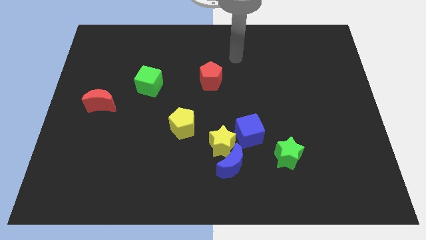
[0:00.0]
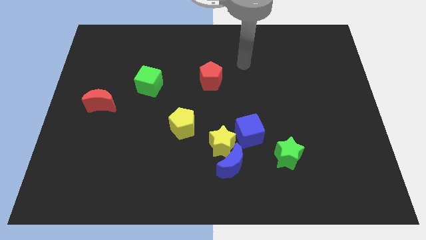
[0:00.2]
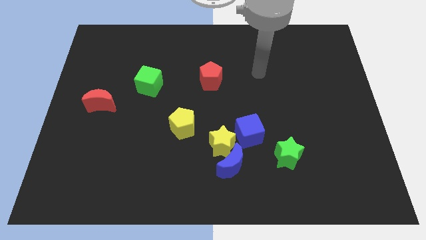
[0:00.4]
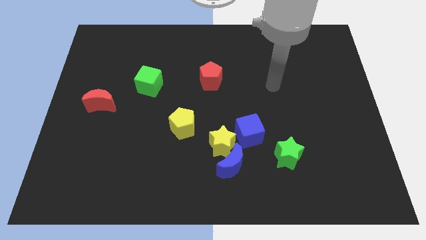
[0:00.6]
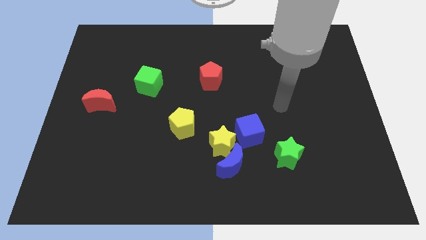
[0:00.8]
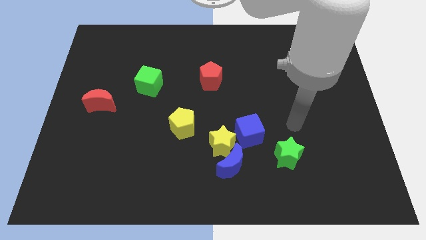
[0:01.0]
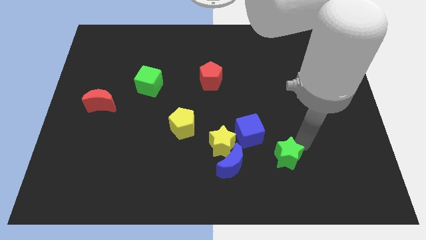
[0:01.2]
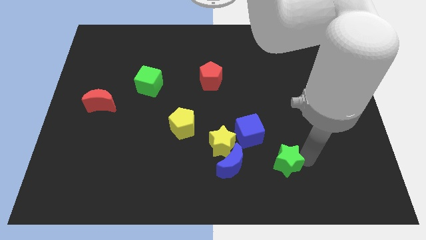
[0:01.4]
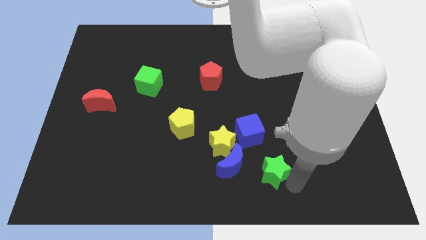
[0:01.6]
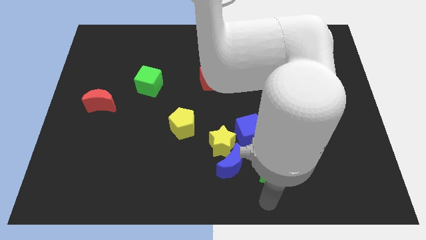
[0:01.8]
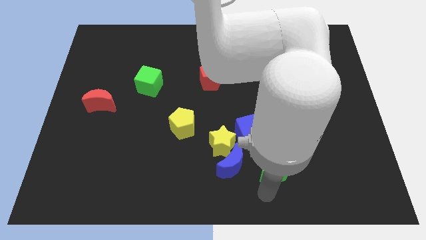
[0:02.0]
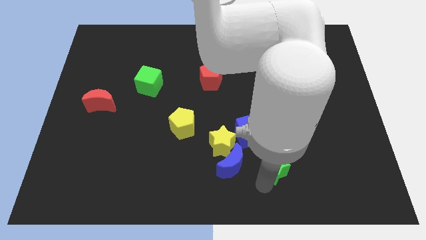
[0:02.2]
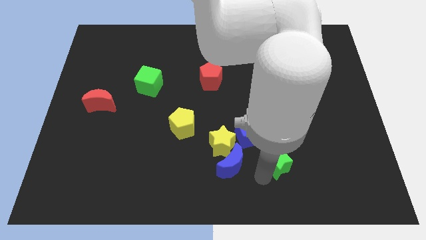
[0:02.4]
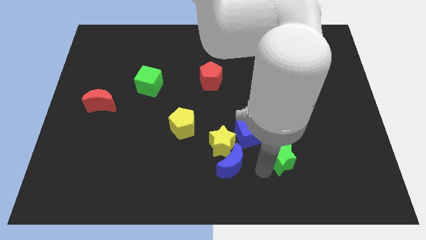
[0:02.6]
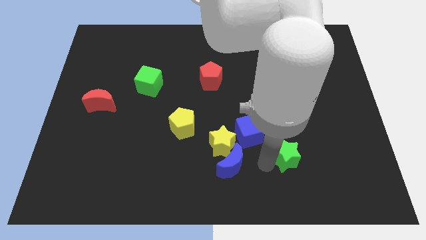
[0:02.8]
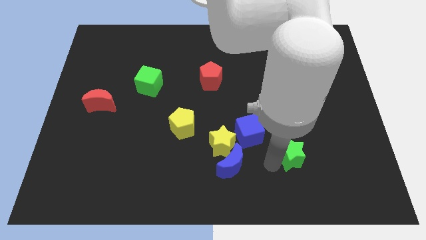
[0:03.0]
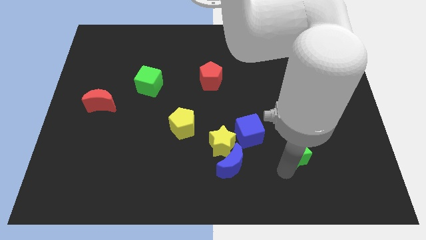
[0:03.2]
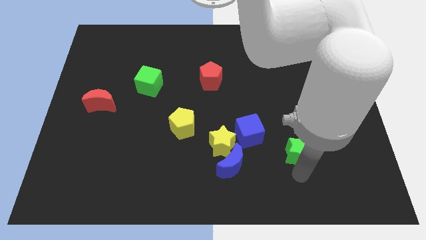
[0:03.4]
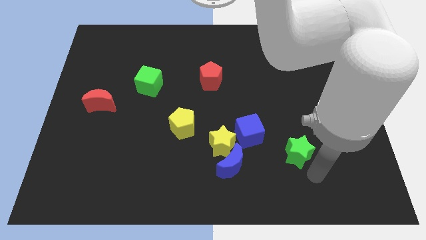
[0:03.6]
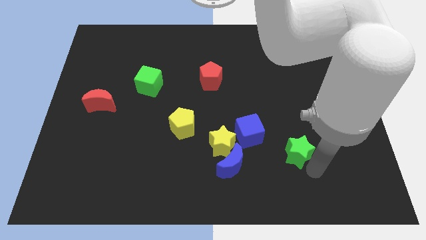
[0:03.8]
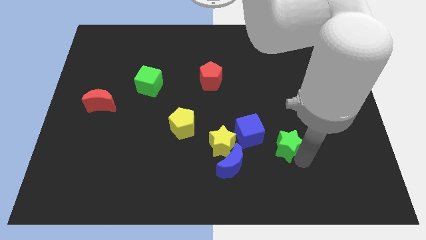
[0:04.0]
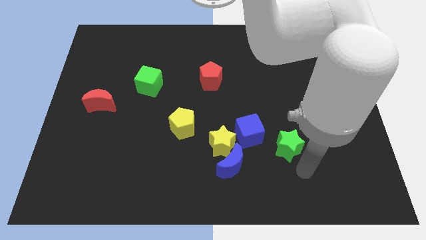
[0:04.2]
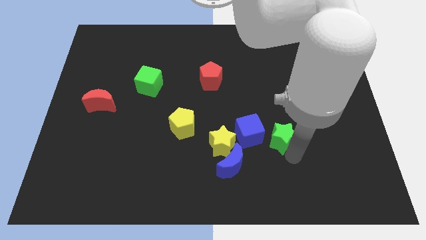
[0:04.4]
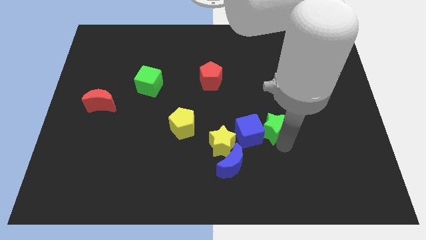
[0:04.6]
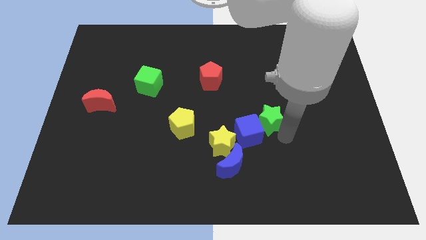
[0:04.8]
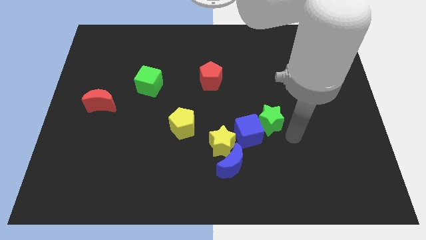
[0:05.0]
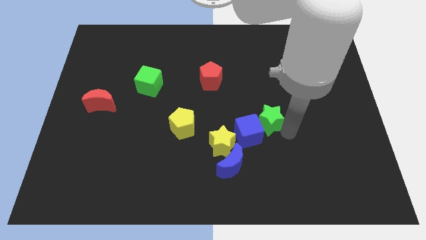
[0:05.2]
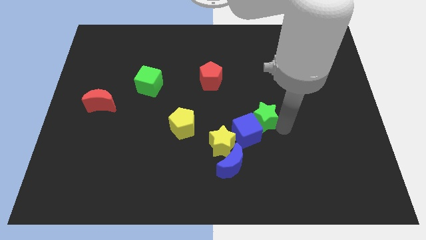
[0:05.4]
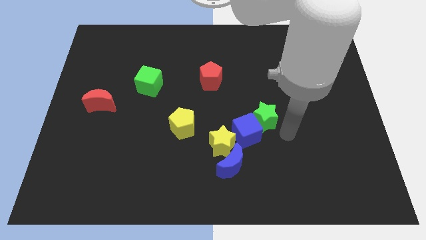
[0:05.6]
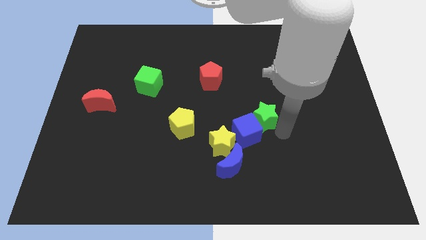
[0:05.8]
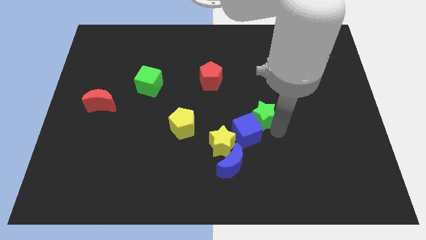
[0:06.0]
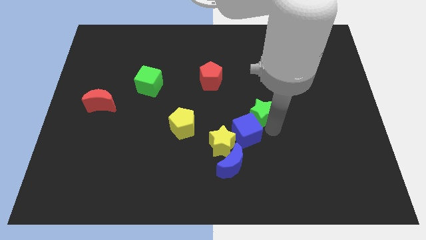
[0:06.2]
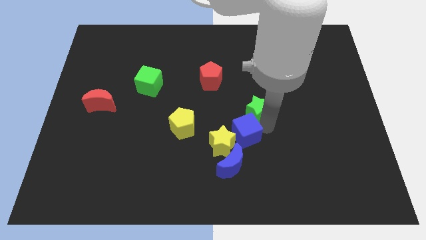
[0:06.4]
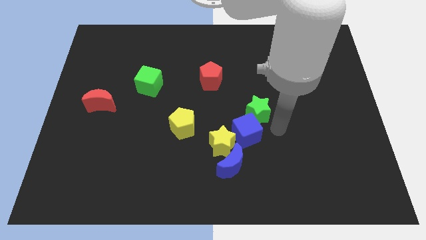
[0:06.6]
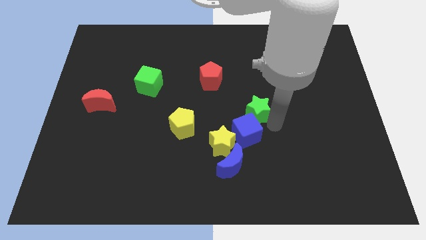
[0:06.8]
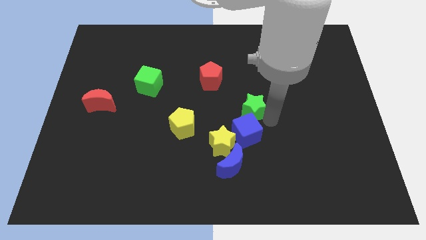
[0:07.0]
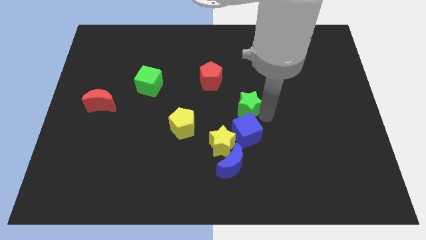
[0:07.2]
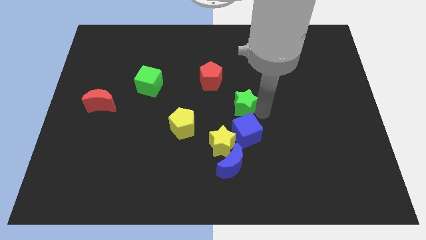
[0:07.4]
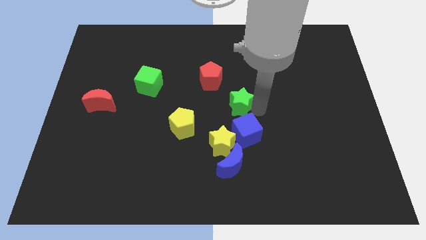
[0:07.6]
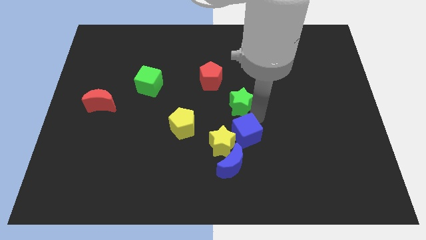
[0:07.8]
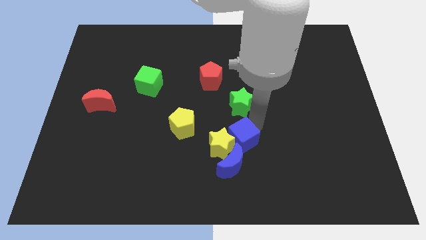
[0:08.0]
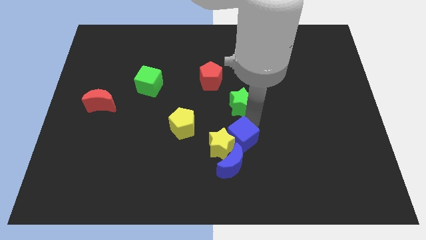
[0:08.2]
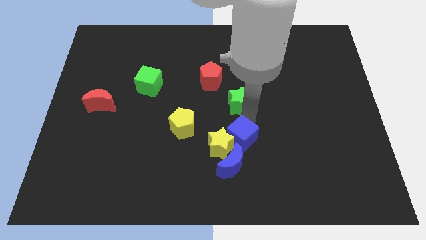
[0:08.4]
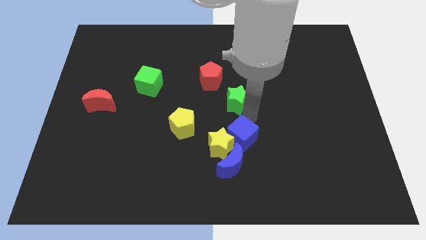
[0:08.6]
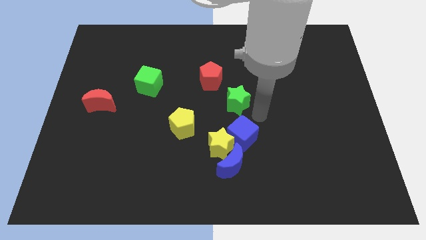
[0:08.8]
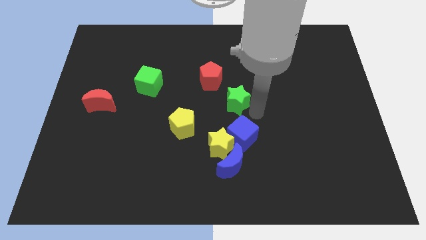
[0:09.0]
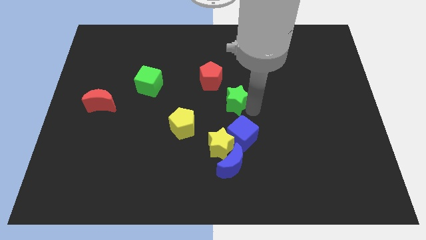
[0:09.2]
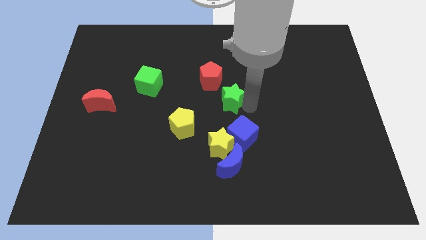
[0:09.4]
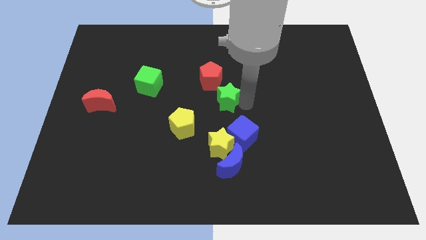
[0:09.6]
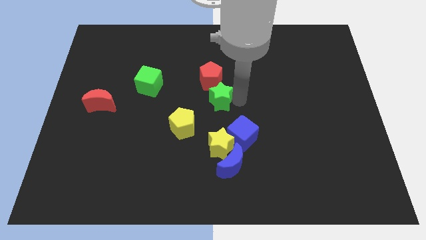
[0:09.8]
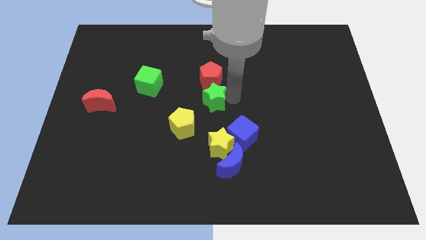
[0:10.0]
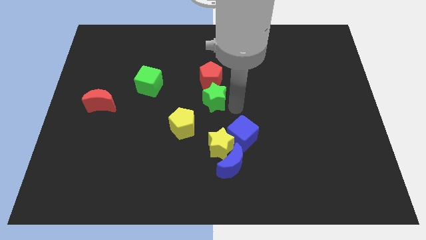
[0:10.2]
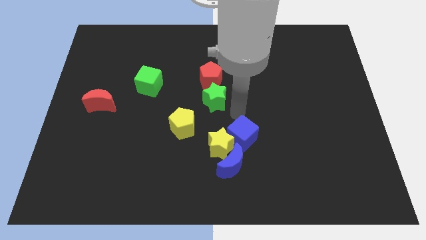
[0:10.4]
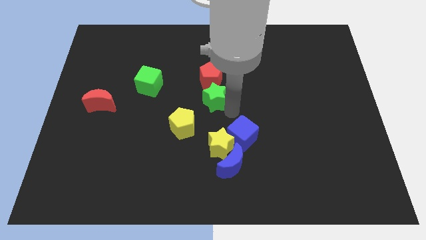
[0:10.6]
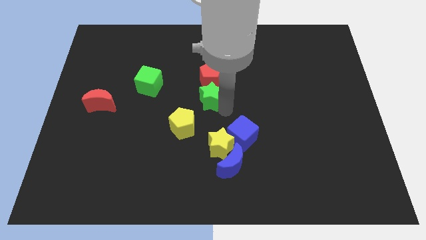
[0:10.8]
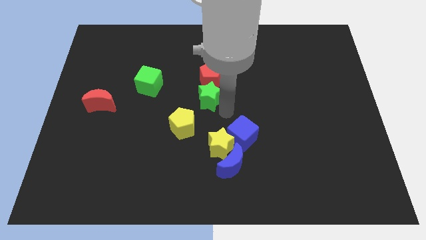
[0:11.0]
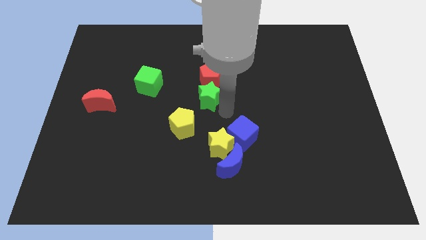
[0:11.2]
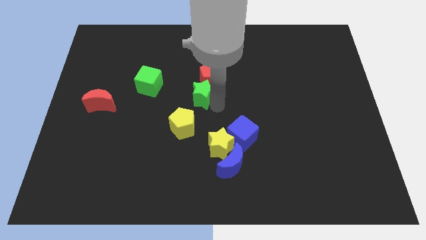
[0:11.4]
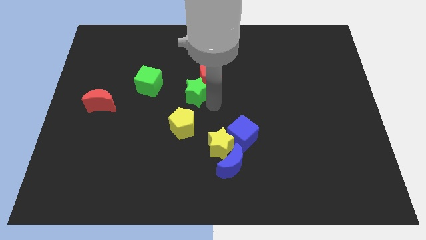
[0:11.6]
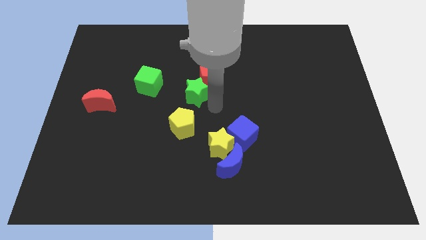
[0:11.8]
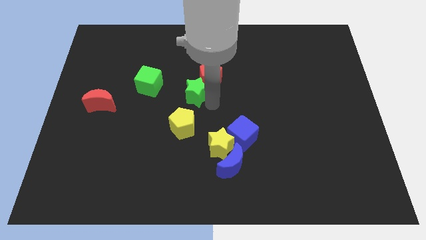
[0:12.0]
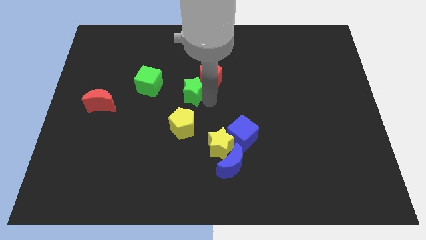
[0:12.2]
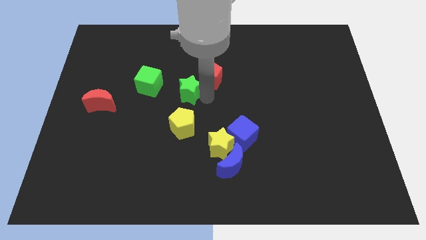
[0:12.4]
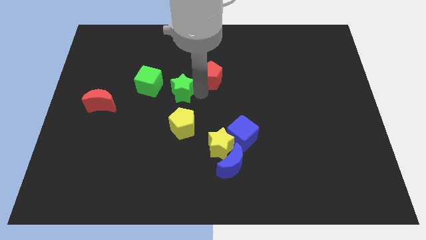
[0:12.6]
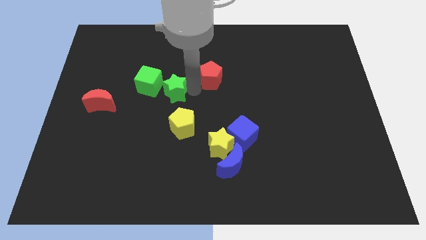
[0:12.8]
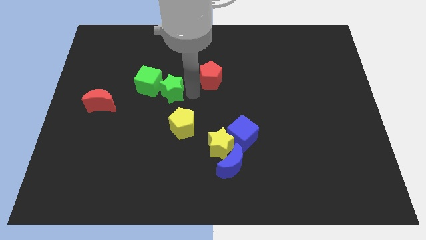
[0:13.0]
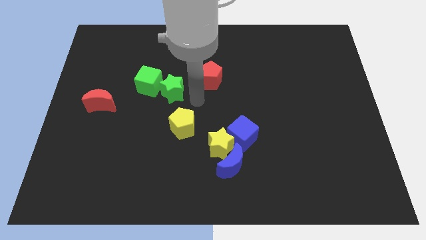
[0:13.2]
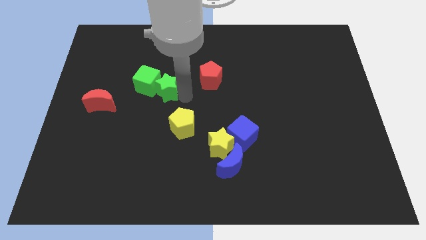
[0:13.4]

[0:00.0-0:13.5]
slide the green star close to the green cube

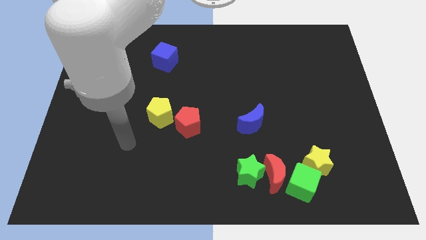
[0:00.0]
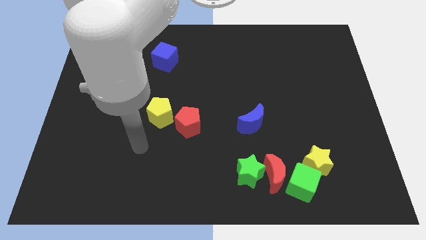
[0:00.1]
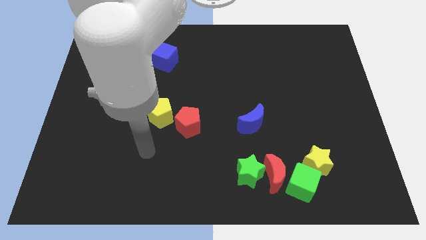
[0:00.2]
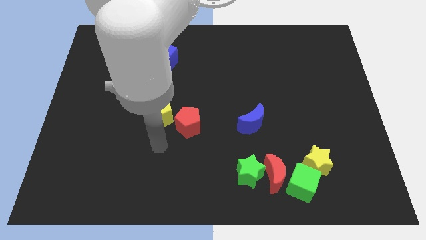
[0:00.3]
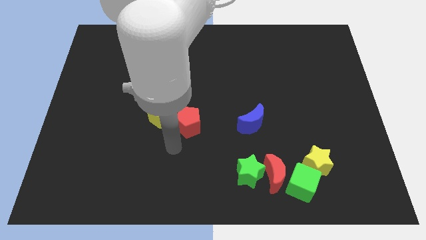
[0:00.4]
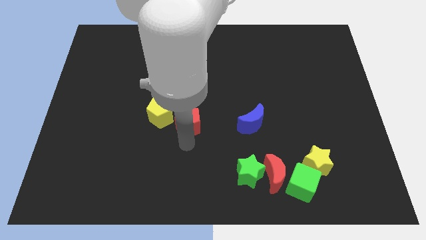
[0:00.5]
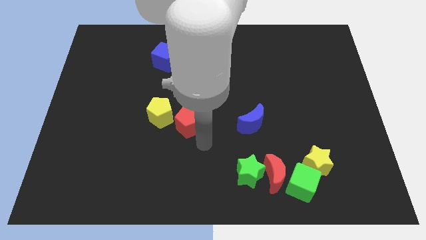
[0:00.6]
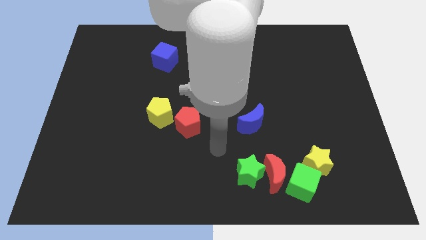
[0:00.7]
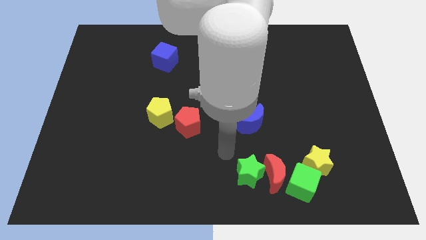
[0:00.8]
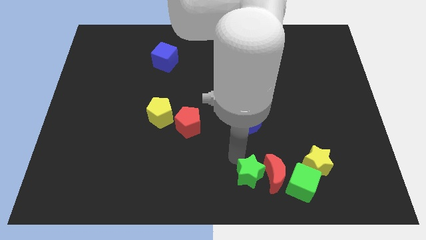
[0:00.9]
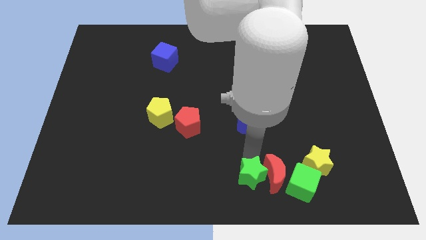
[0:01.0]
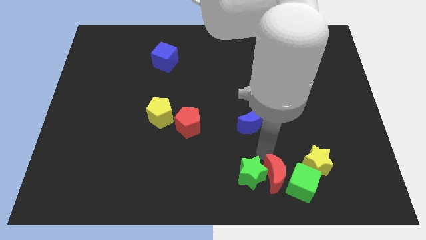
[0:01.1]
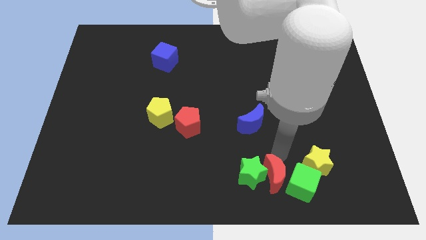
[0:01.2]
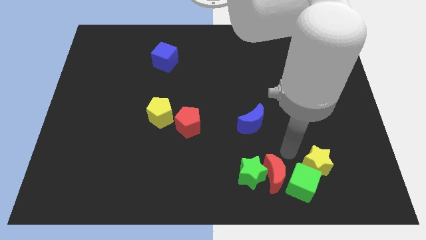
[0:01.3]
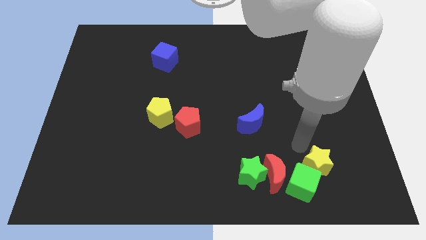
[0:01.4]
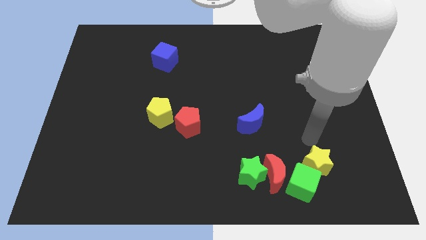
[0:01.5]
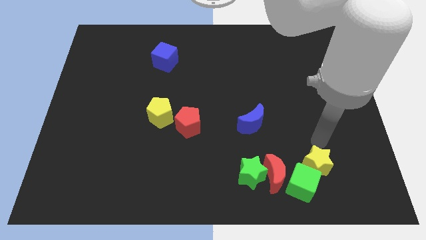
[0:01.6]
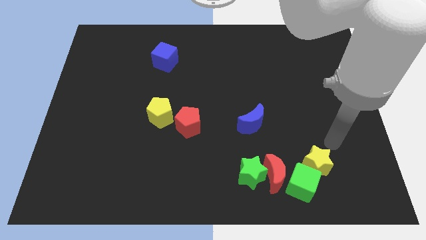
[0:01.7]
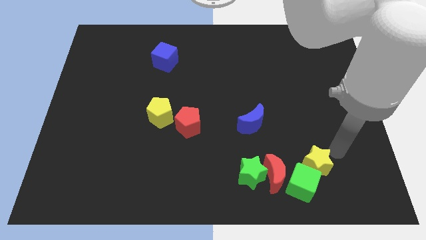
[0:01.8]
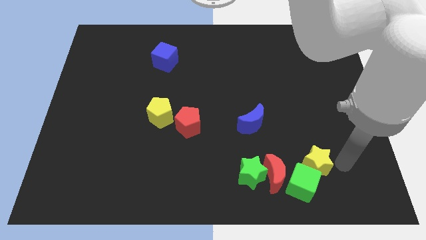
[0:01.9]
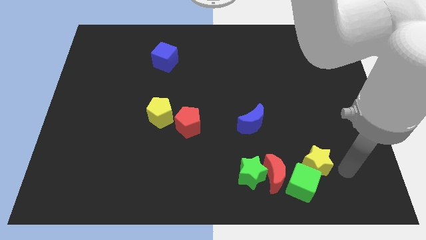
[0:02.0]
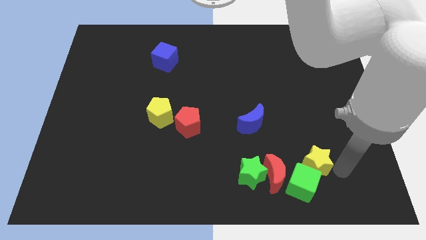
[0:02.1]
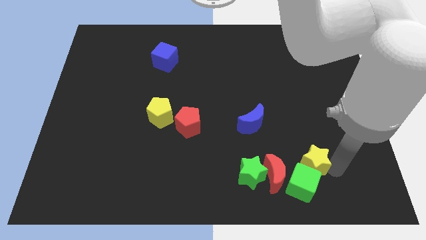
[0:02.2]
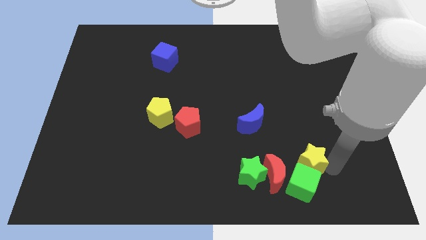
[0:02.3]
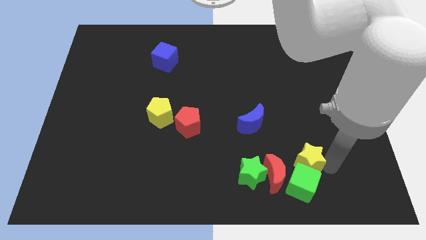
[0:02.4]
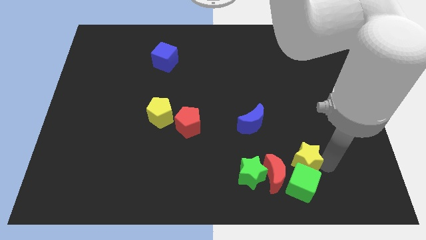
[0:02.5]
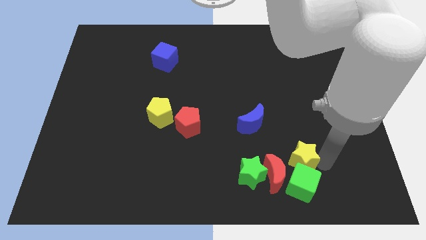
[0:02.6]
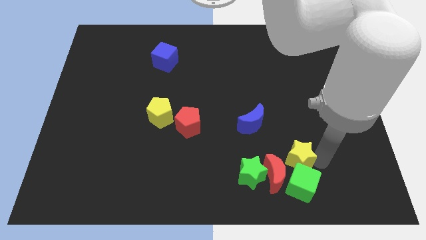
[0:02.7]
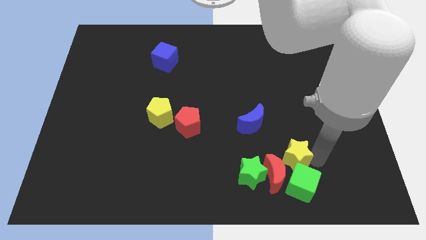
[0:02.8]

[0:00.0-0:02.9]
slide the yellow star next to the red moon
